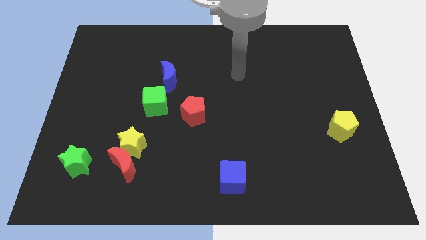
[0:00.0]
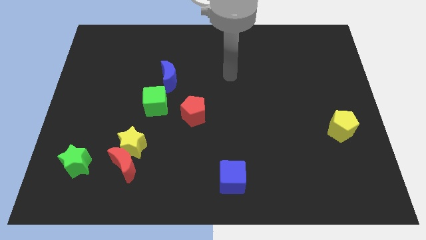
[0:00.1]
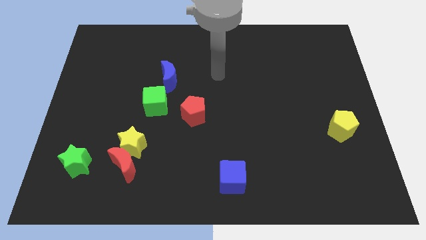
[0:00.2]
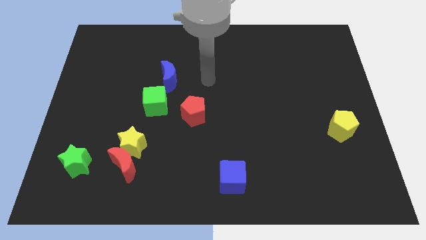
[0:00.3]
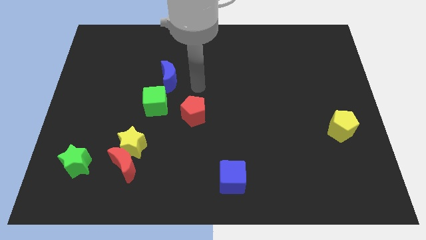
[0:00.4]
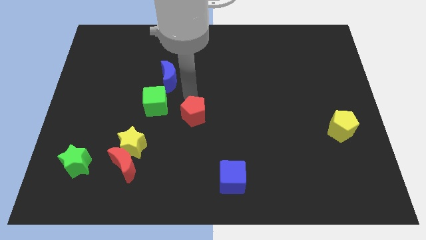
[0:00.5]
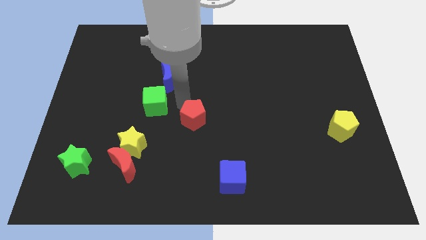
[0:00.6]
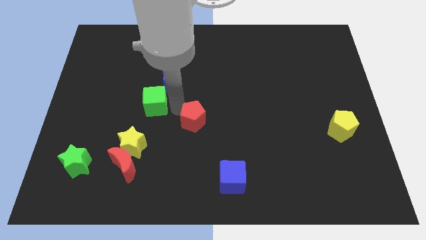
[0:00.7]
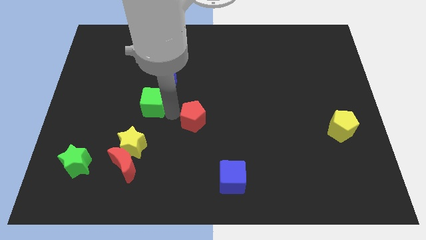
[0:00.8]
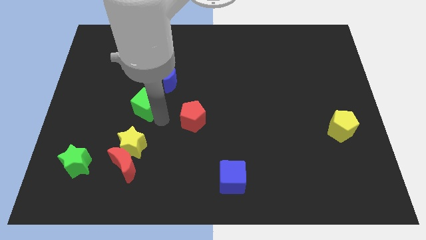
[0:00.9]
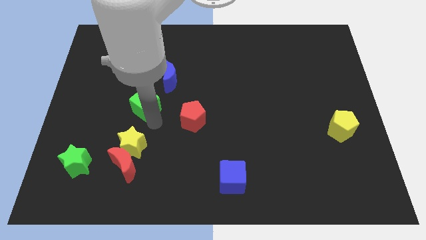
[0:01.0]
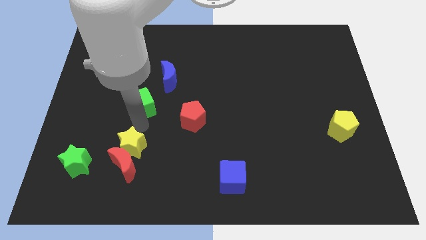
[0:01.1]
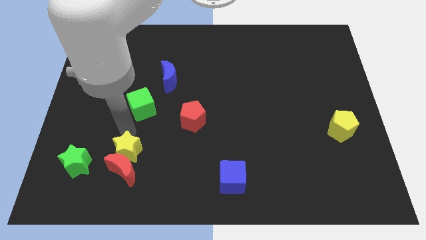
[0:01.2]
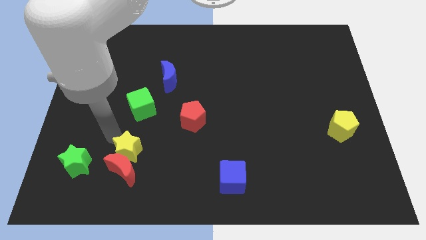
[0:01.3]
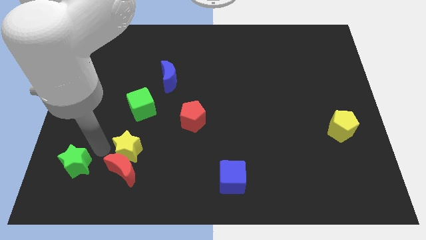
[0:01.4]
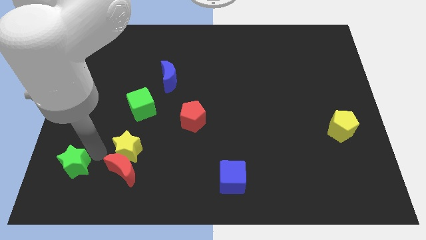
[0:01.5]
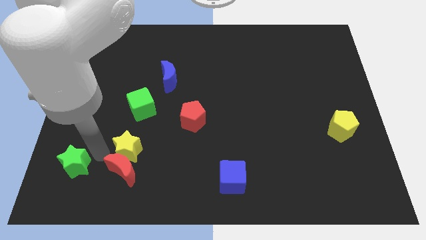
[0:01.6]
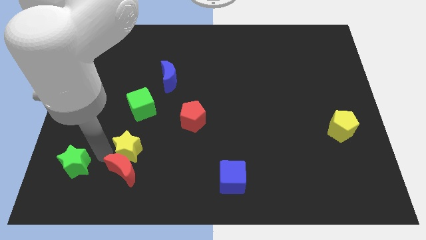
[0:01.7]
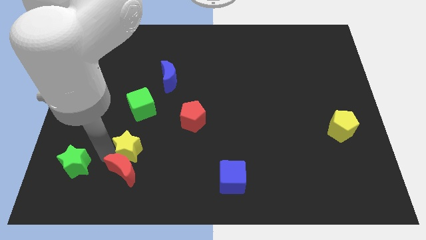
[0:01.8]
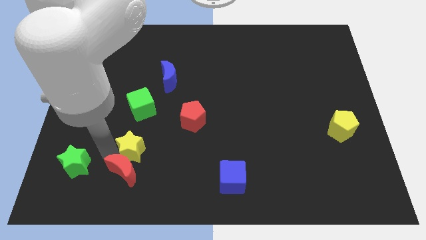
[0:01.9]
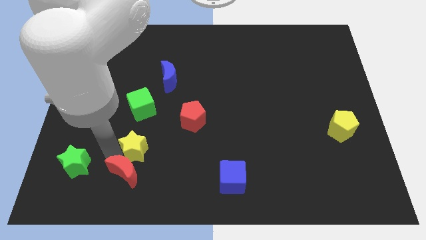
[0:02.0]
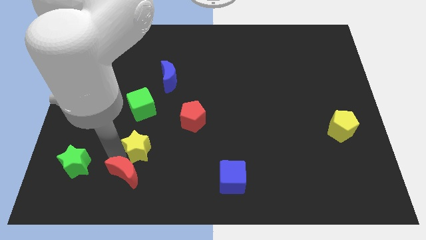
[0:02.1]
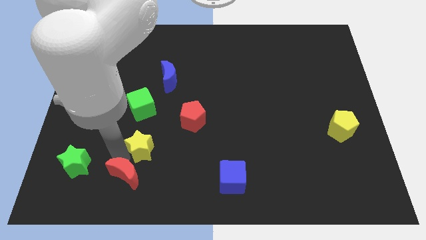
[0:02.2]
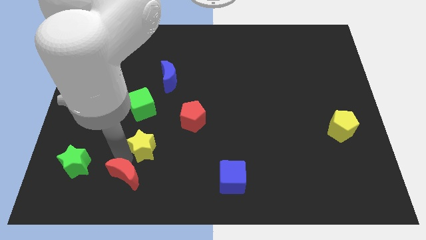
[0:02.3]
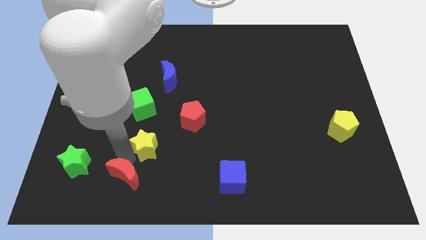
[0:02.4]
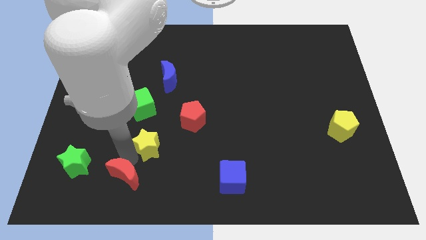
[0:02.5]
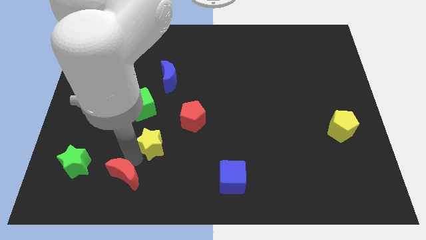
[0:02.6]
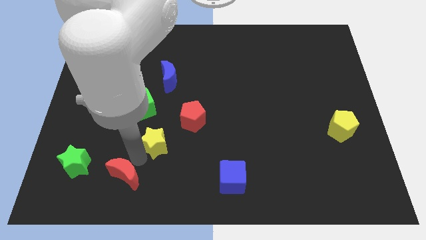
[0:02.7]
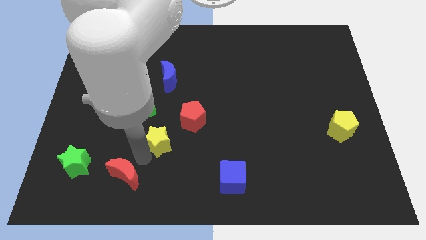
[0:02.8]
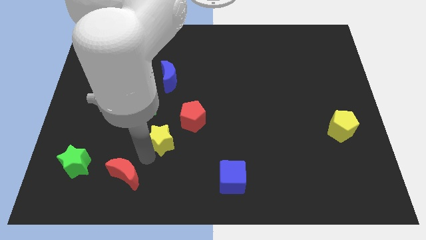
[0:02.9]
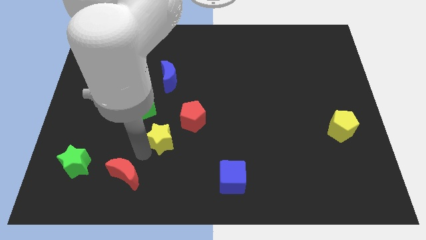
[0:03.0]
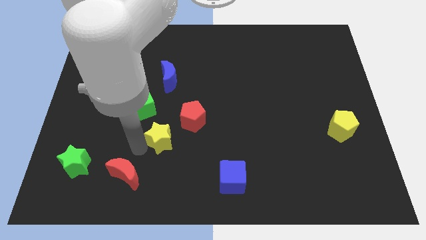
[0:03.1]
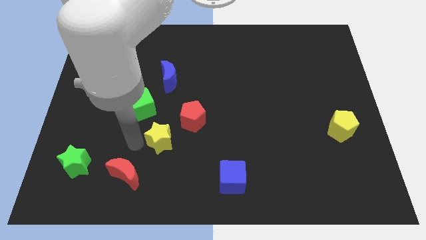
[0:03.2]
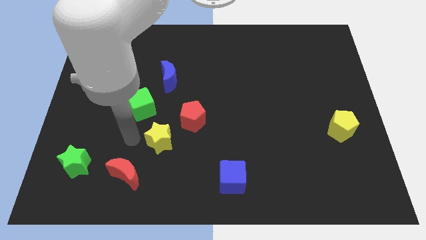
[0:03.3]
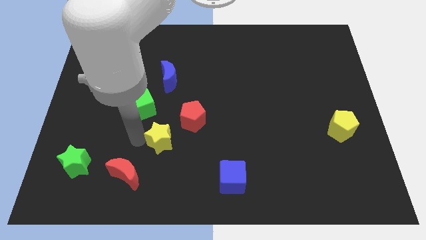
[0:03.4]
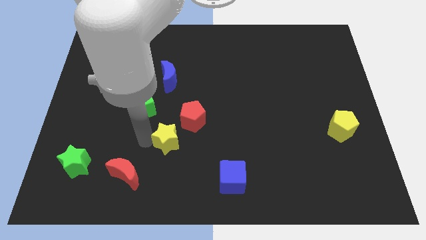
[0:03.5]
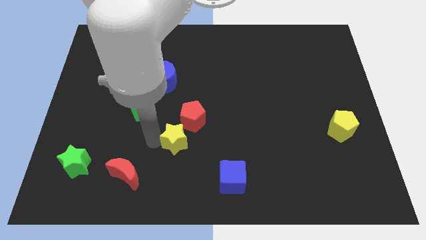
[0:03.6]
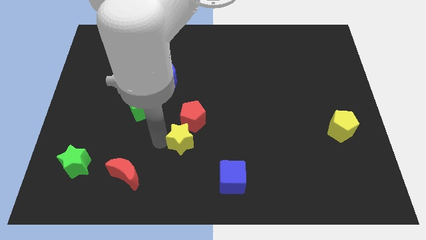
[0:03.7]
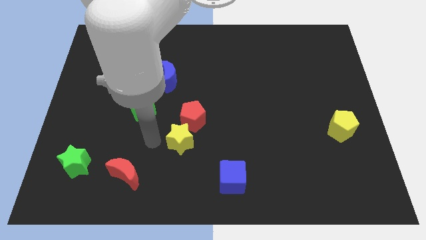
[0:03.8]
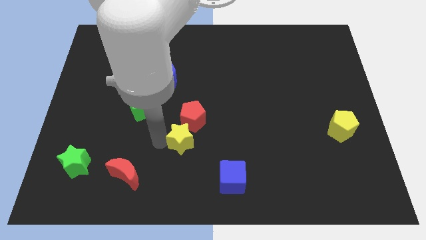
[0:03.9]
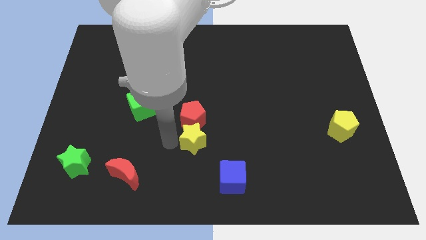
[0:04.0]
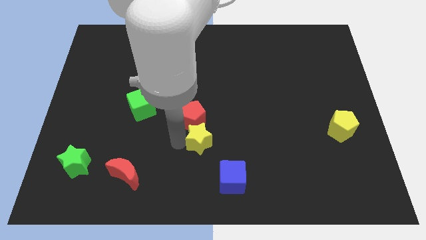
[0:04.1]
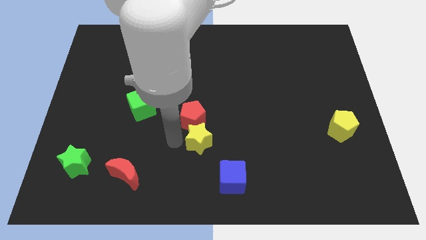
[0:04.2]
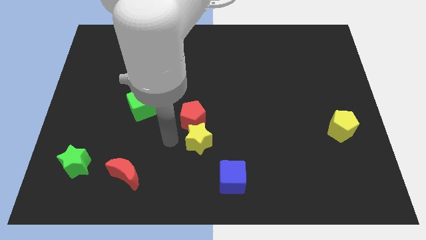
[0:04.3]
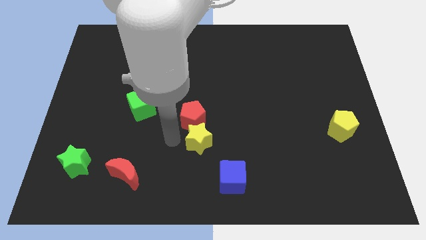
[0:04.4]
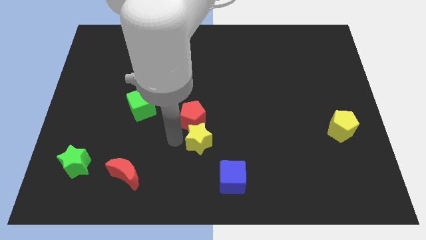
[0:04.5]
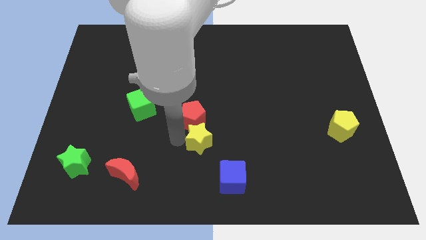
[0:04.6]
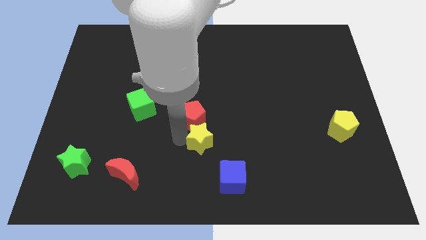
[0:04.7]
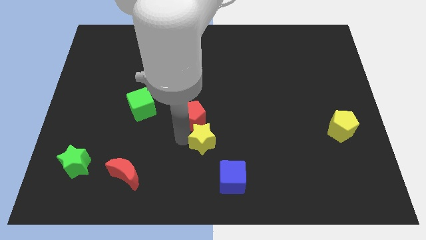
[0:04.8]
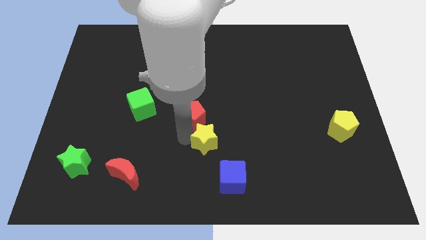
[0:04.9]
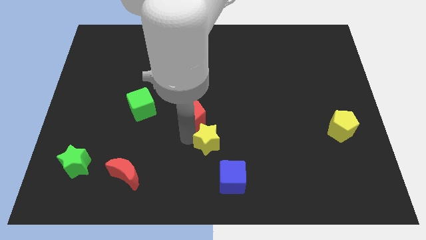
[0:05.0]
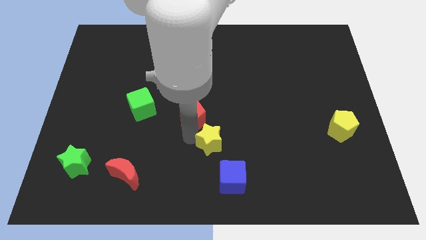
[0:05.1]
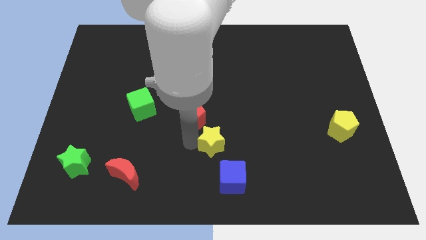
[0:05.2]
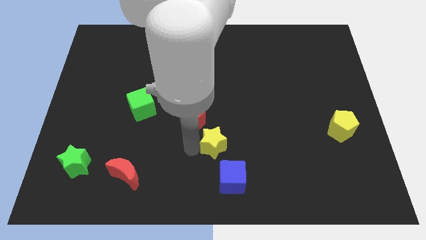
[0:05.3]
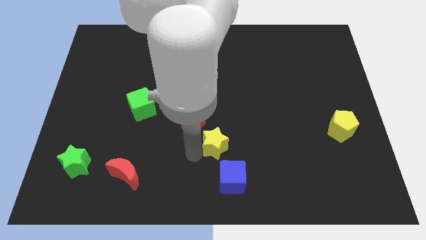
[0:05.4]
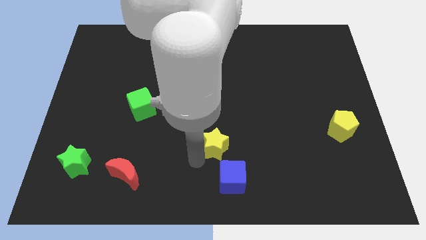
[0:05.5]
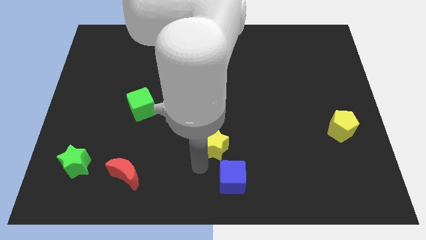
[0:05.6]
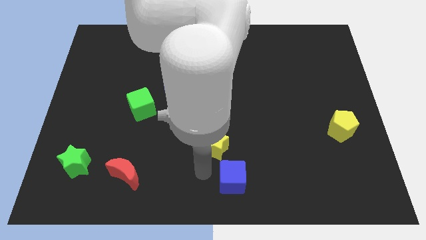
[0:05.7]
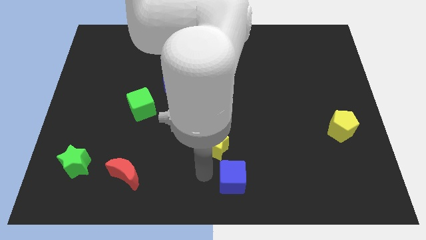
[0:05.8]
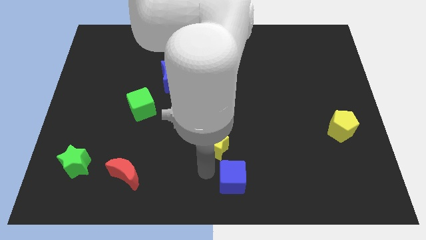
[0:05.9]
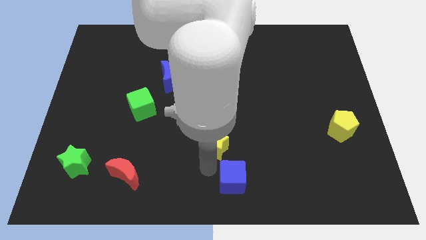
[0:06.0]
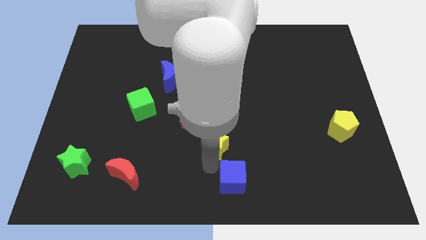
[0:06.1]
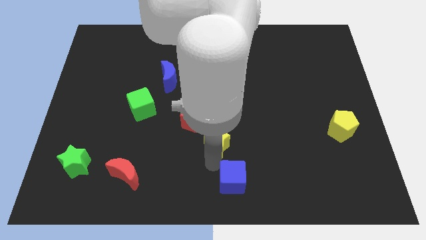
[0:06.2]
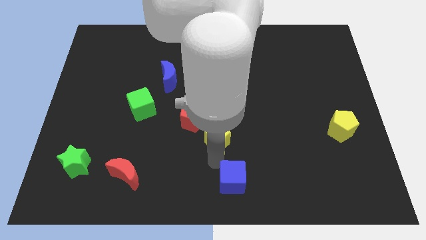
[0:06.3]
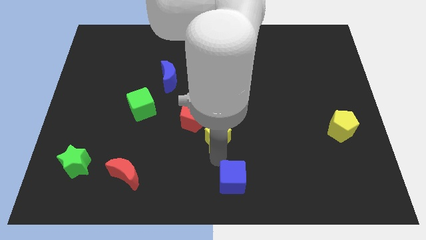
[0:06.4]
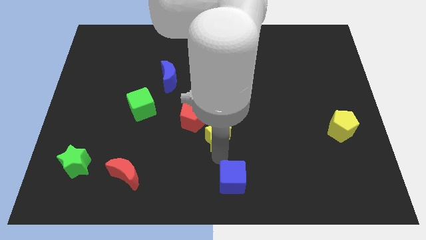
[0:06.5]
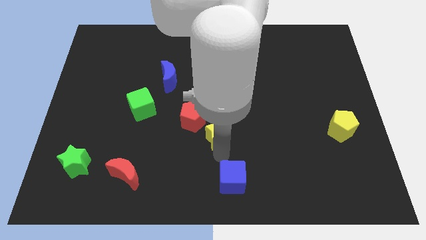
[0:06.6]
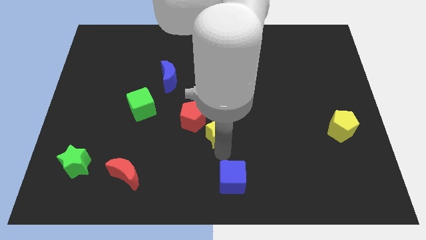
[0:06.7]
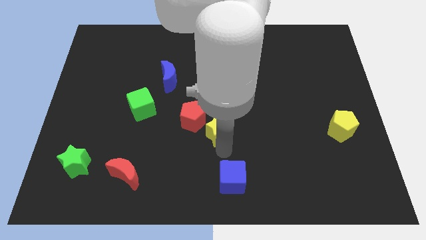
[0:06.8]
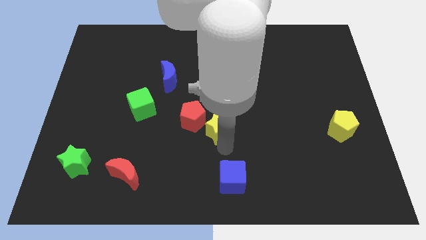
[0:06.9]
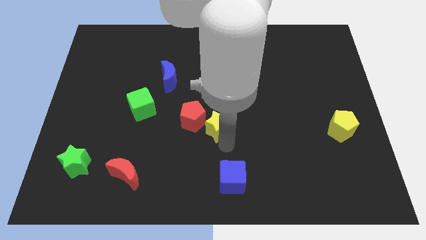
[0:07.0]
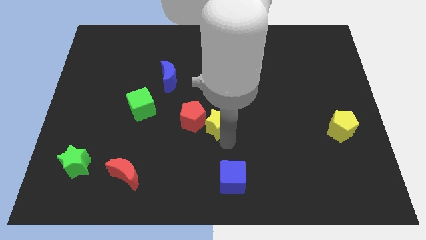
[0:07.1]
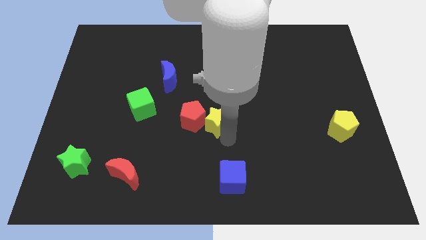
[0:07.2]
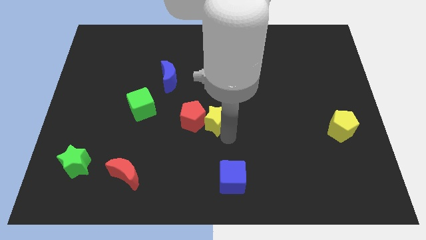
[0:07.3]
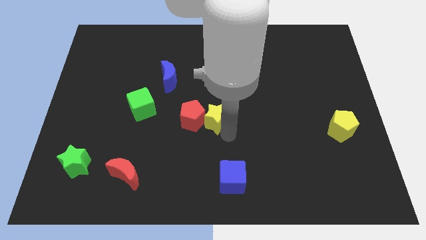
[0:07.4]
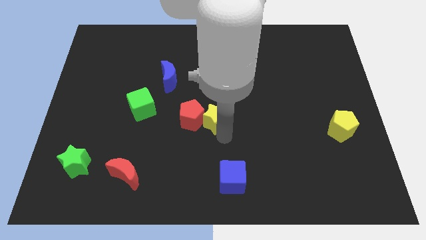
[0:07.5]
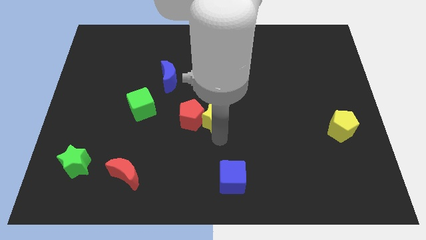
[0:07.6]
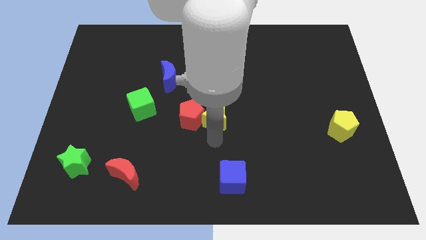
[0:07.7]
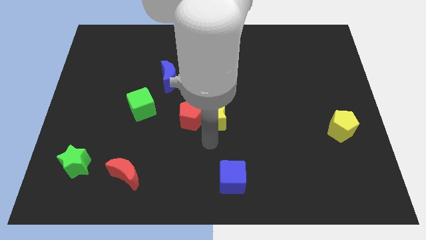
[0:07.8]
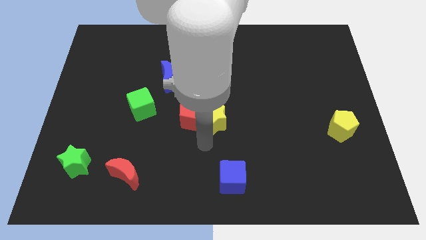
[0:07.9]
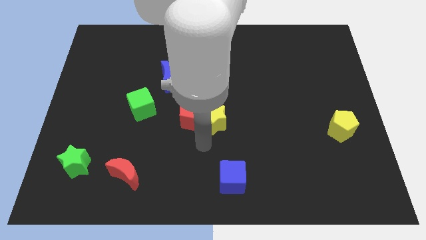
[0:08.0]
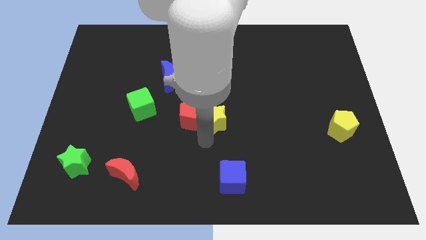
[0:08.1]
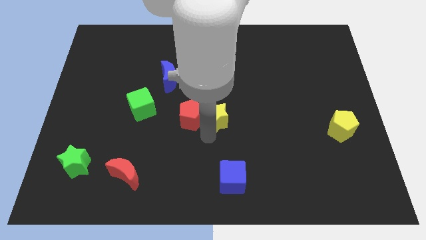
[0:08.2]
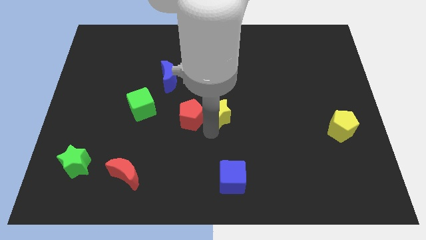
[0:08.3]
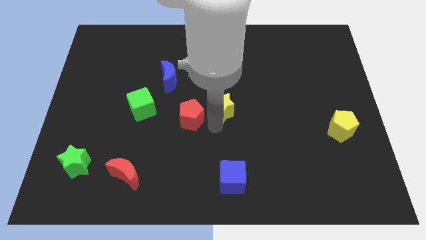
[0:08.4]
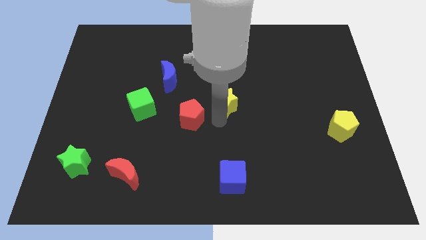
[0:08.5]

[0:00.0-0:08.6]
move the yellow star diagonally upwards and to the right

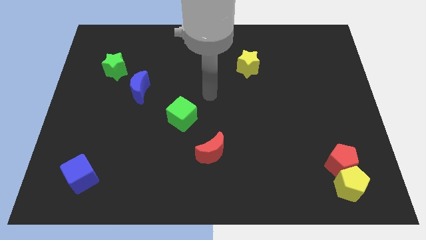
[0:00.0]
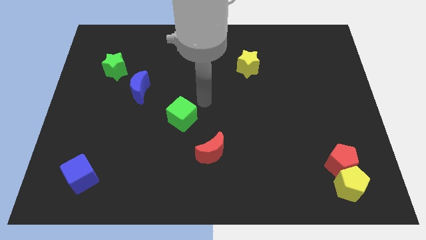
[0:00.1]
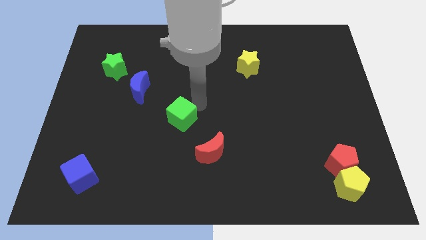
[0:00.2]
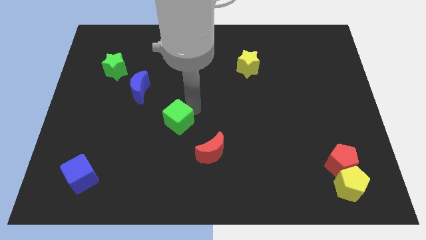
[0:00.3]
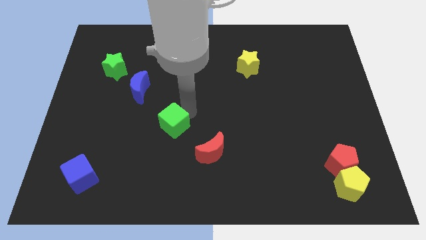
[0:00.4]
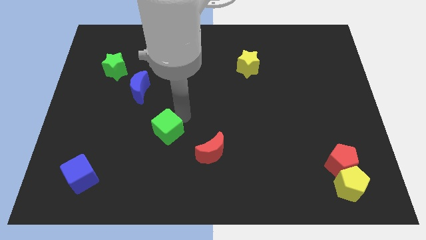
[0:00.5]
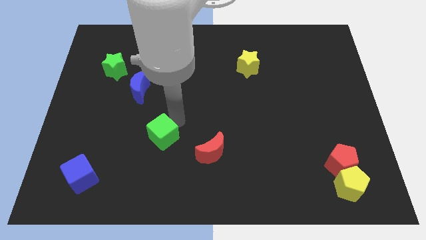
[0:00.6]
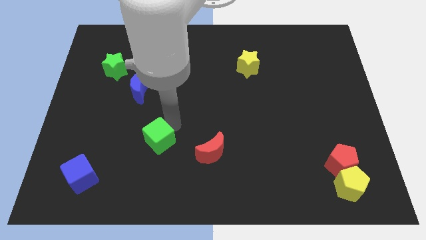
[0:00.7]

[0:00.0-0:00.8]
slightly move the green cube diagonally downwards and left
